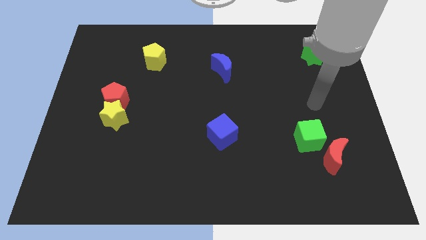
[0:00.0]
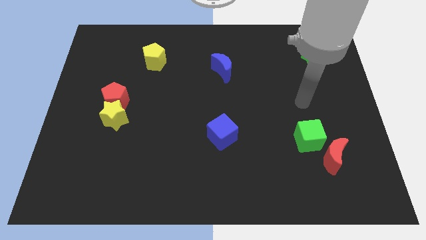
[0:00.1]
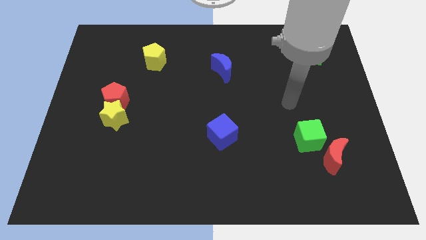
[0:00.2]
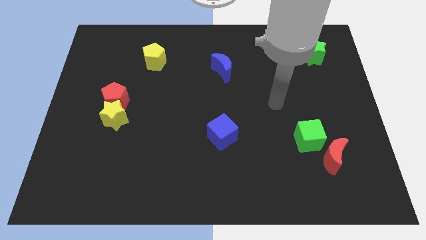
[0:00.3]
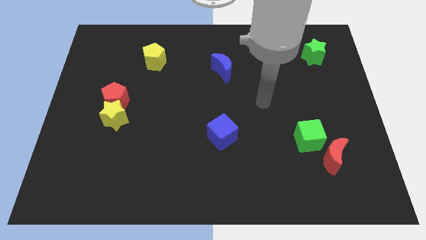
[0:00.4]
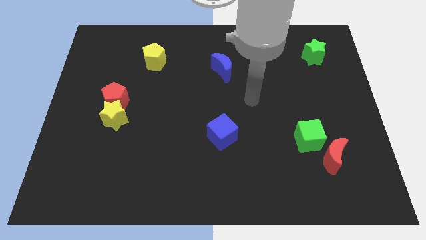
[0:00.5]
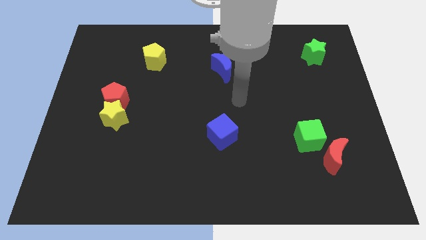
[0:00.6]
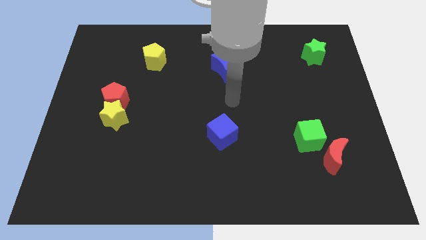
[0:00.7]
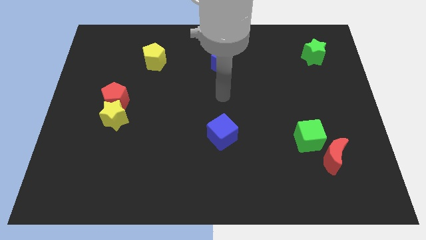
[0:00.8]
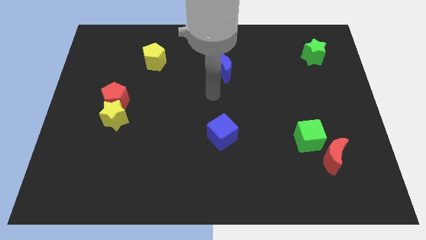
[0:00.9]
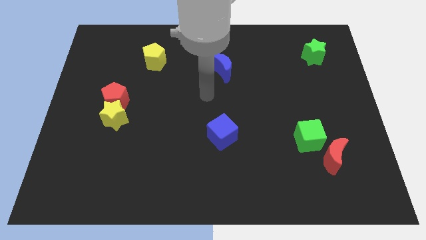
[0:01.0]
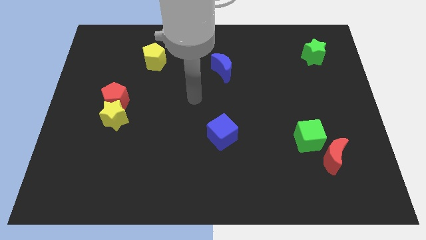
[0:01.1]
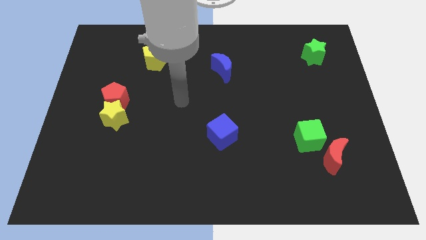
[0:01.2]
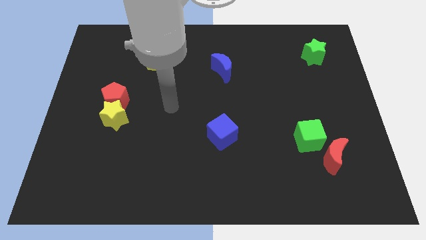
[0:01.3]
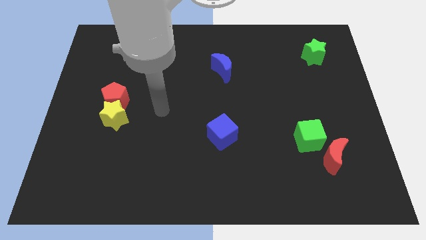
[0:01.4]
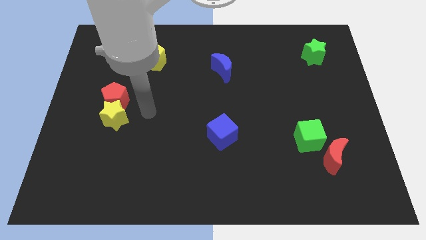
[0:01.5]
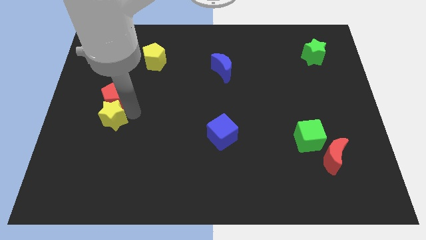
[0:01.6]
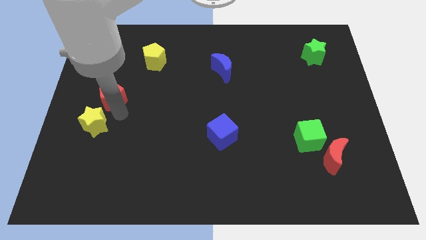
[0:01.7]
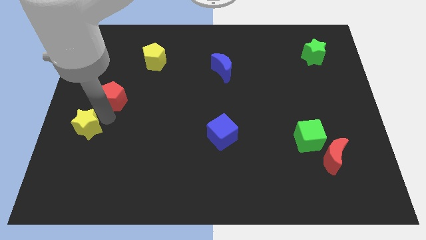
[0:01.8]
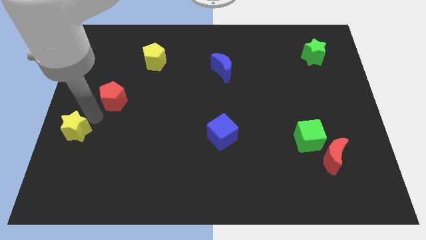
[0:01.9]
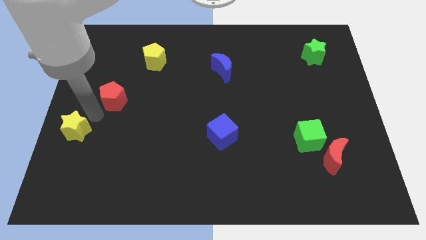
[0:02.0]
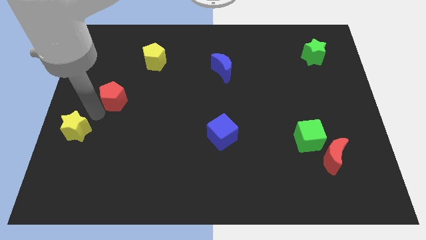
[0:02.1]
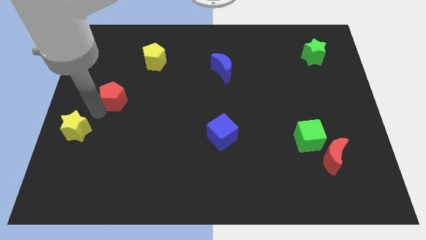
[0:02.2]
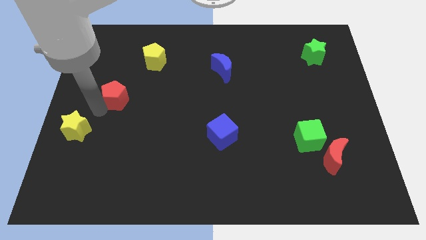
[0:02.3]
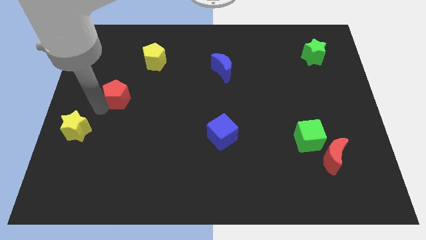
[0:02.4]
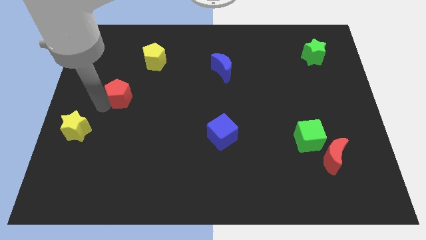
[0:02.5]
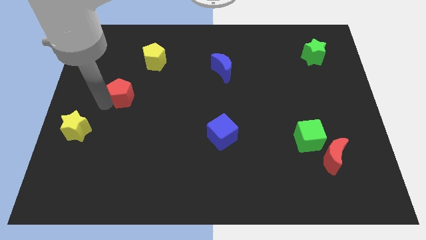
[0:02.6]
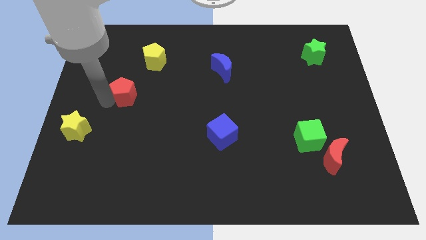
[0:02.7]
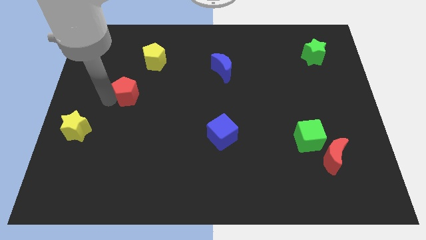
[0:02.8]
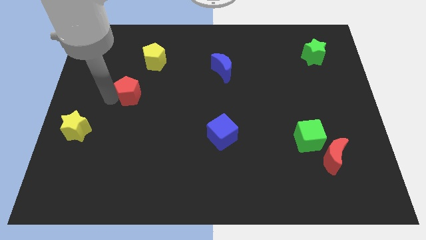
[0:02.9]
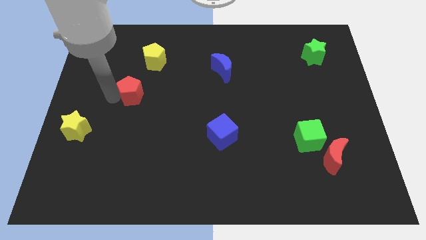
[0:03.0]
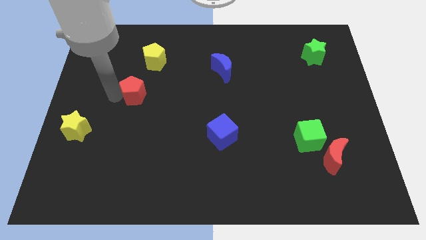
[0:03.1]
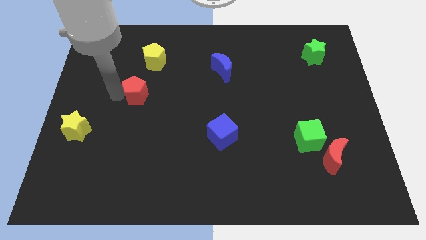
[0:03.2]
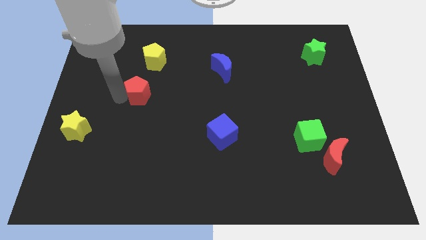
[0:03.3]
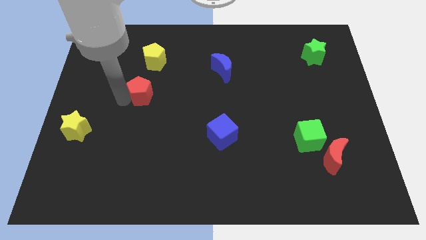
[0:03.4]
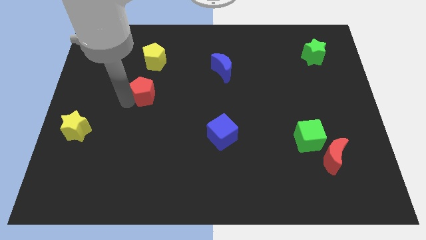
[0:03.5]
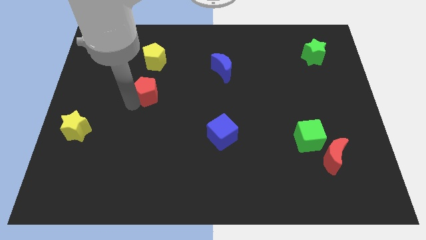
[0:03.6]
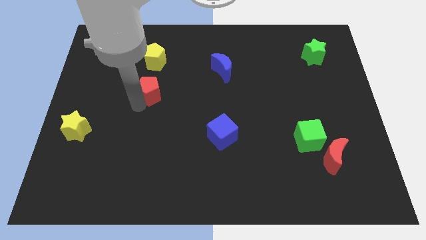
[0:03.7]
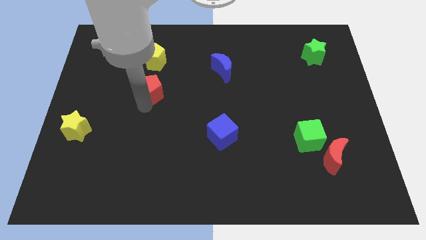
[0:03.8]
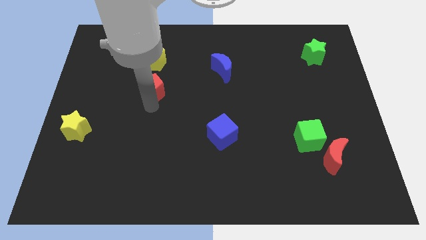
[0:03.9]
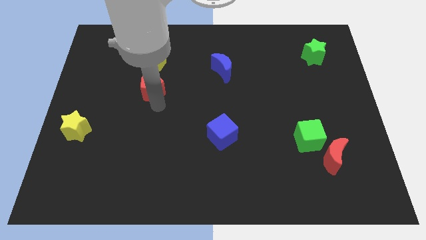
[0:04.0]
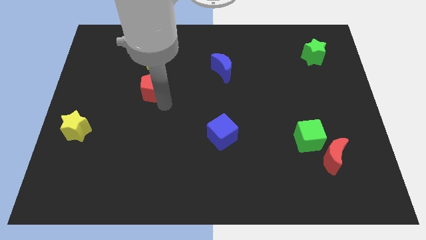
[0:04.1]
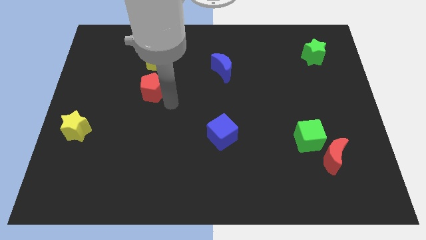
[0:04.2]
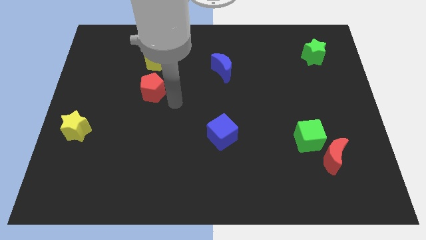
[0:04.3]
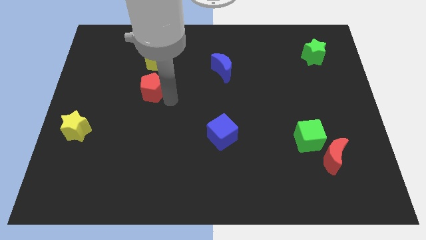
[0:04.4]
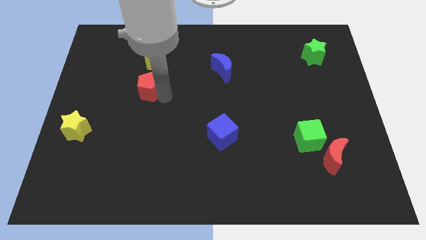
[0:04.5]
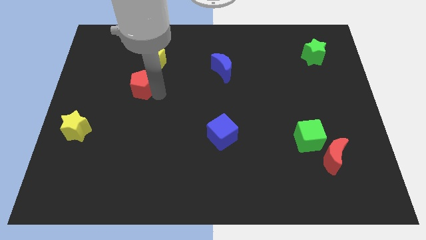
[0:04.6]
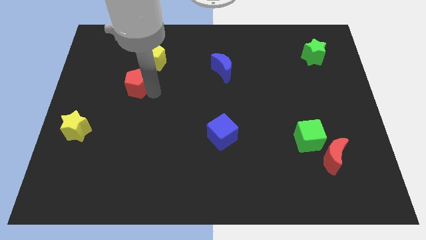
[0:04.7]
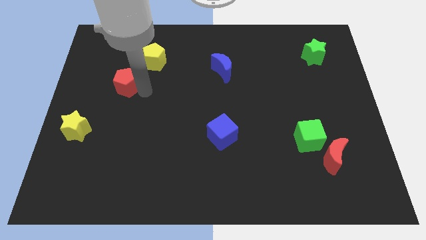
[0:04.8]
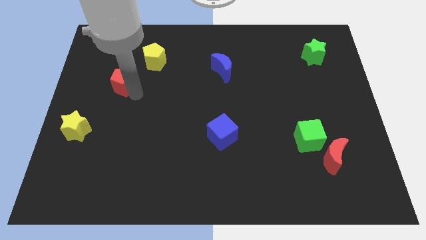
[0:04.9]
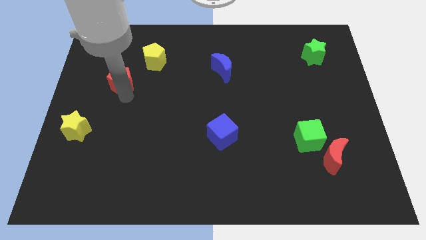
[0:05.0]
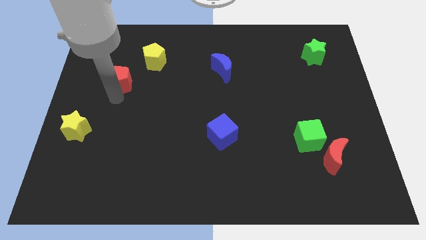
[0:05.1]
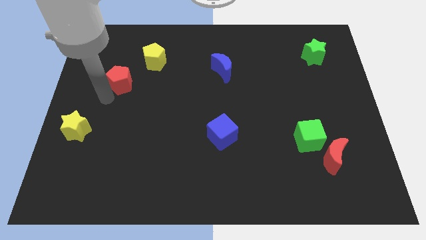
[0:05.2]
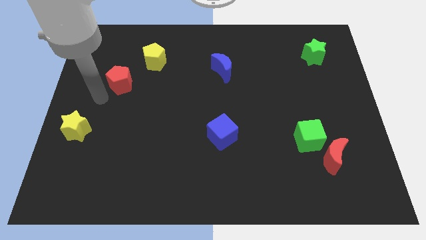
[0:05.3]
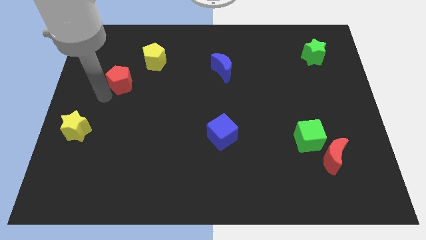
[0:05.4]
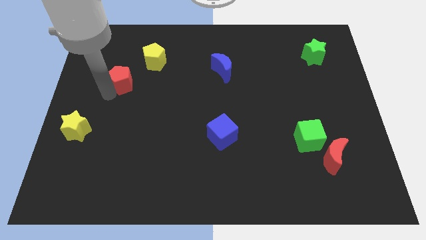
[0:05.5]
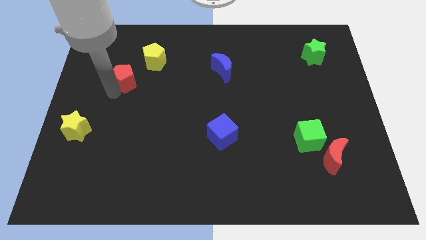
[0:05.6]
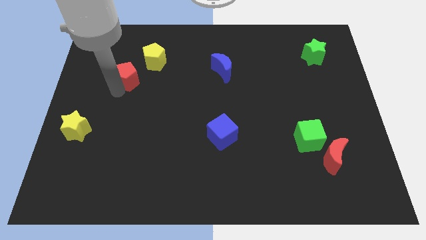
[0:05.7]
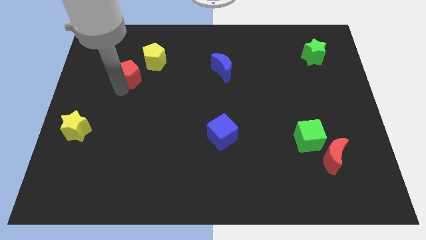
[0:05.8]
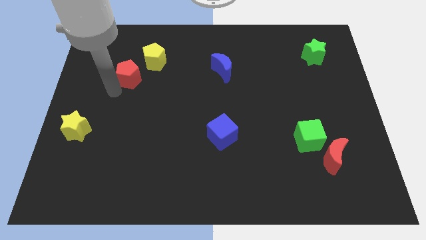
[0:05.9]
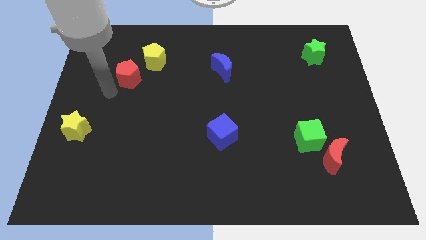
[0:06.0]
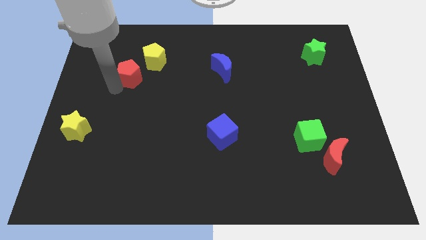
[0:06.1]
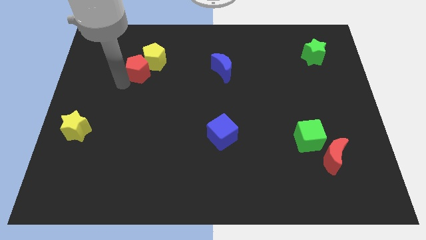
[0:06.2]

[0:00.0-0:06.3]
move the red pentagon next to the yellow pentagon

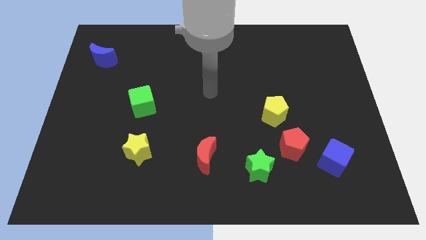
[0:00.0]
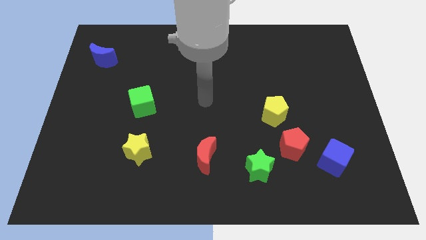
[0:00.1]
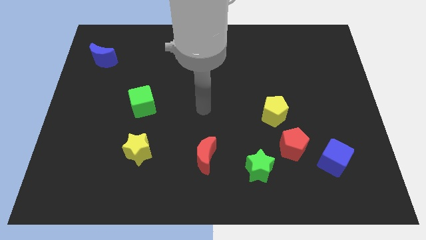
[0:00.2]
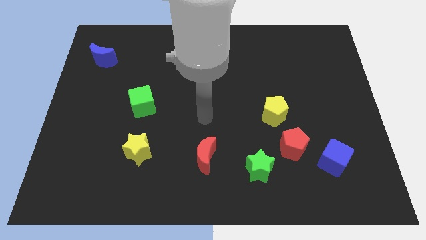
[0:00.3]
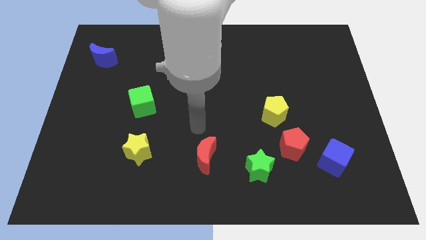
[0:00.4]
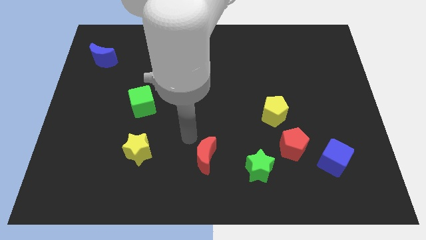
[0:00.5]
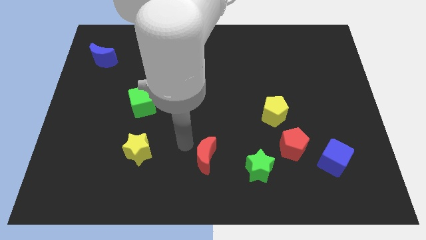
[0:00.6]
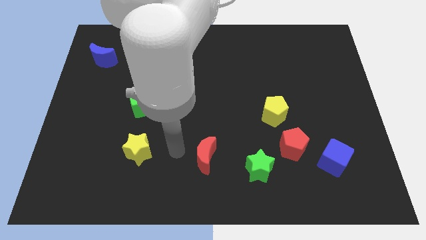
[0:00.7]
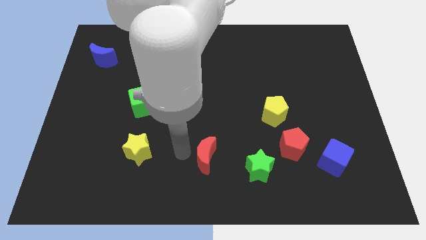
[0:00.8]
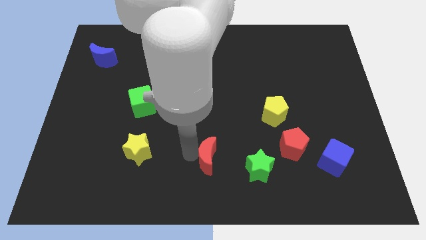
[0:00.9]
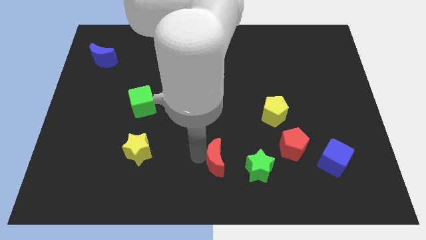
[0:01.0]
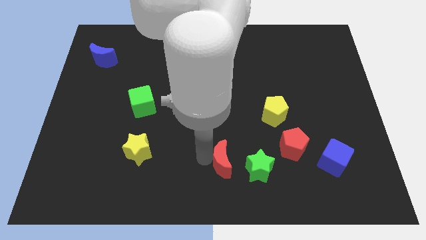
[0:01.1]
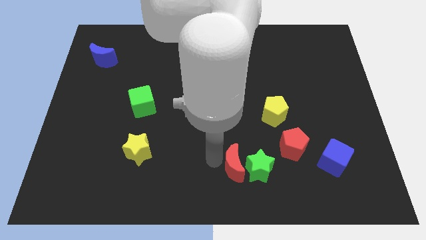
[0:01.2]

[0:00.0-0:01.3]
push the red moon close to the green star
